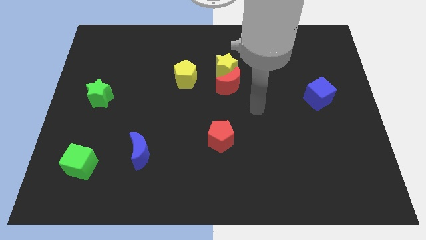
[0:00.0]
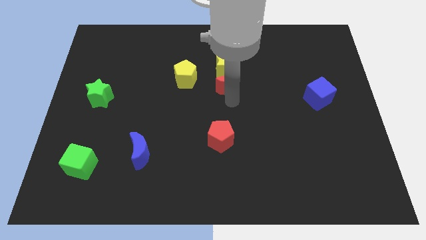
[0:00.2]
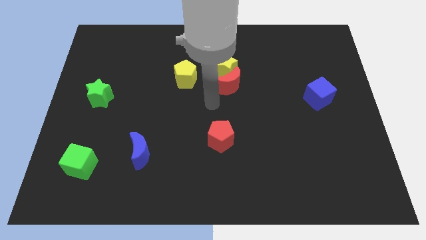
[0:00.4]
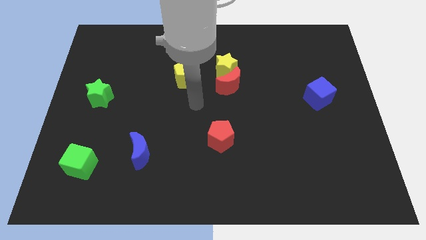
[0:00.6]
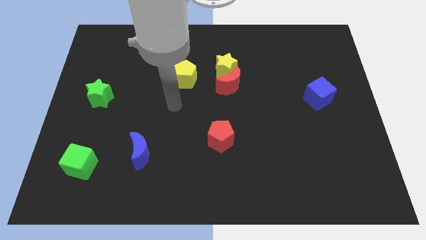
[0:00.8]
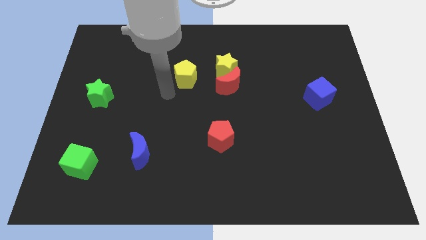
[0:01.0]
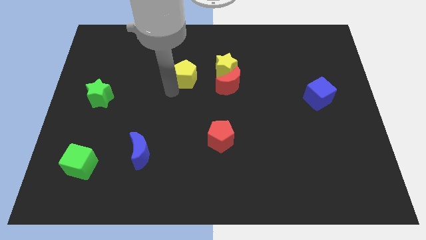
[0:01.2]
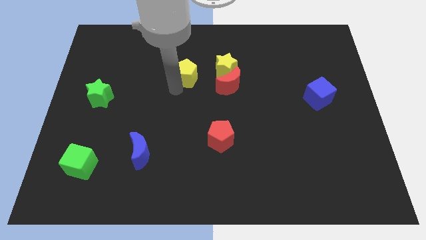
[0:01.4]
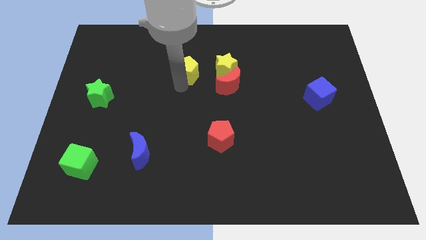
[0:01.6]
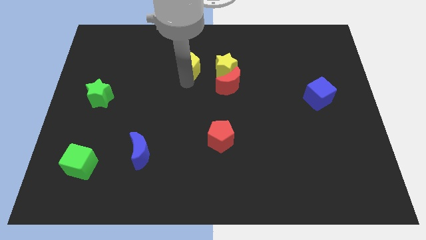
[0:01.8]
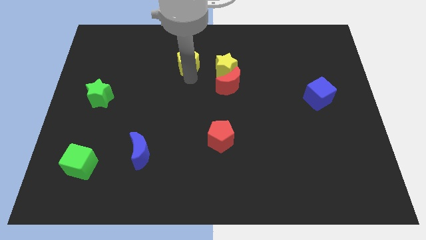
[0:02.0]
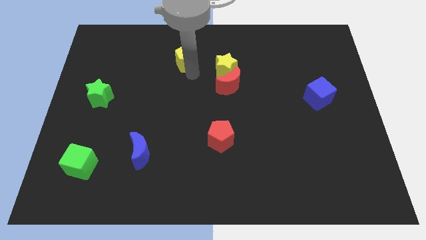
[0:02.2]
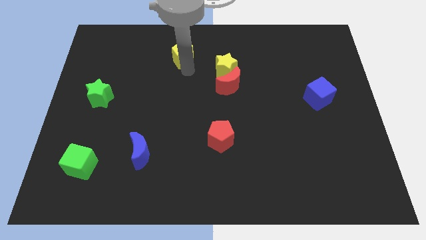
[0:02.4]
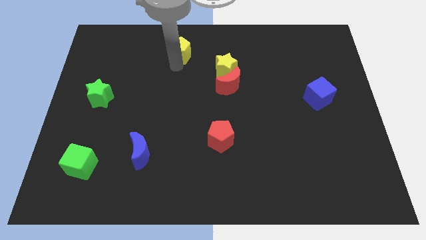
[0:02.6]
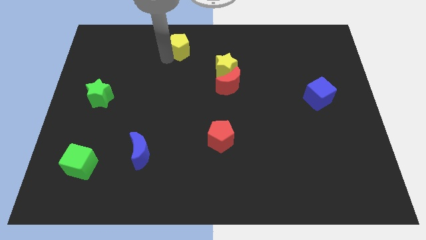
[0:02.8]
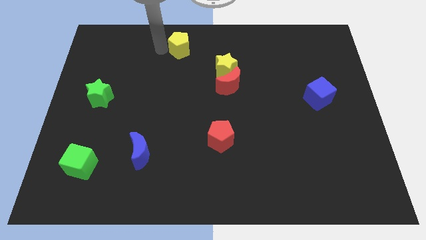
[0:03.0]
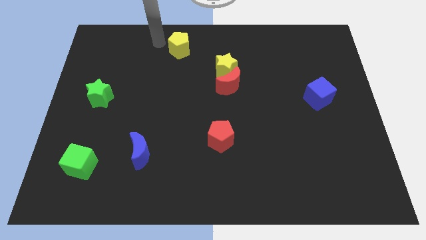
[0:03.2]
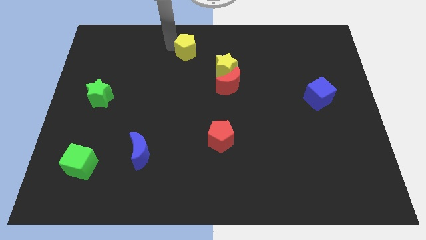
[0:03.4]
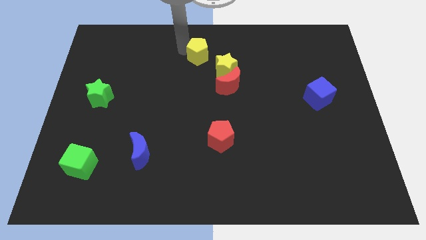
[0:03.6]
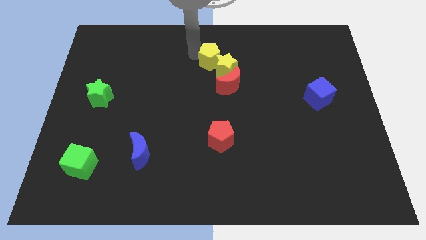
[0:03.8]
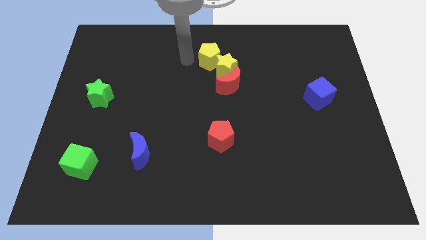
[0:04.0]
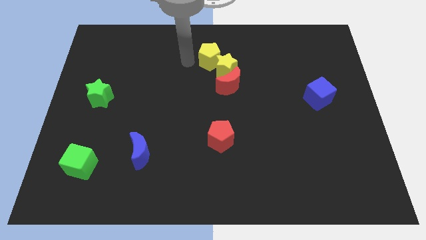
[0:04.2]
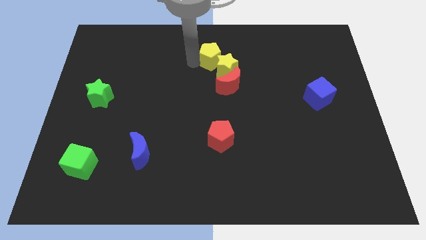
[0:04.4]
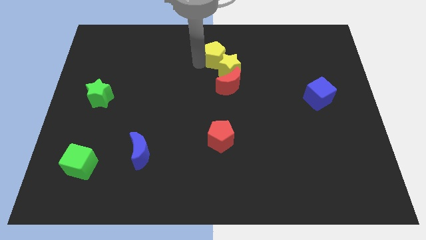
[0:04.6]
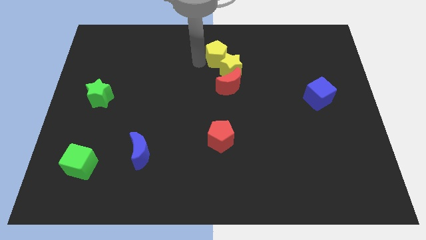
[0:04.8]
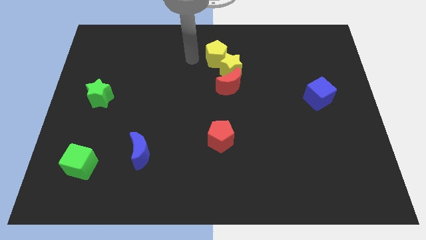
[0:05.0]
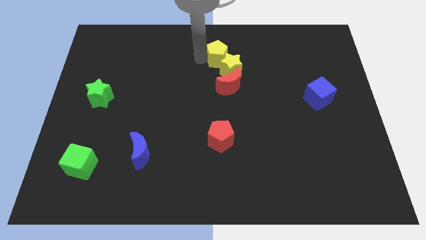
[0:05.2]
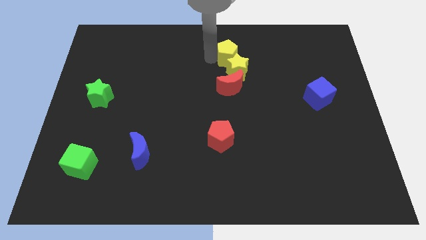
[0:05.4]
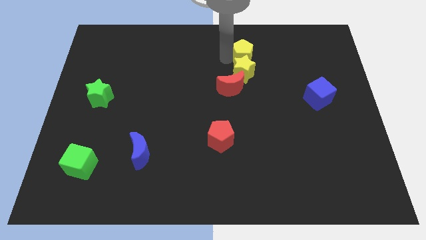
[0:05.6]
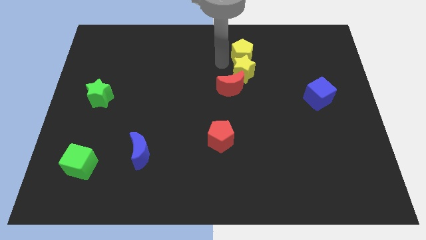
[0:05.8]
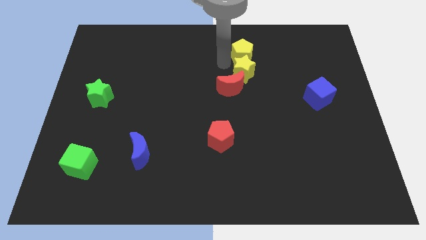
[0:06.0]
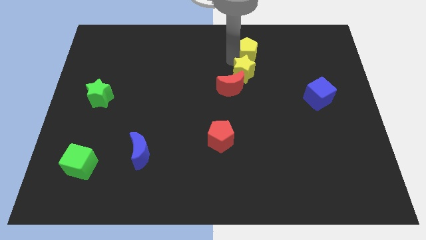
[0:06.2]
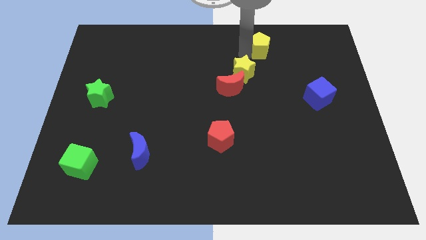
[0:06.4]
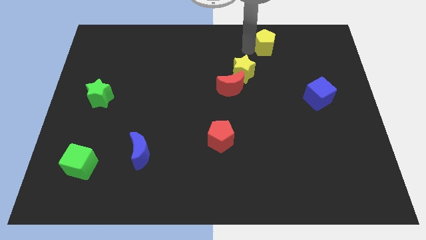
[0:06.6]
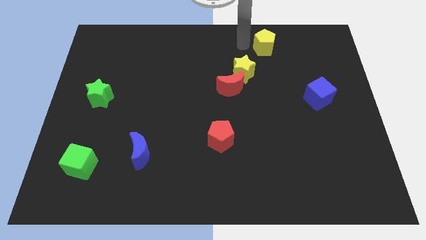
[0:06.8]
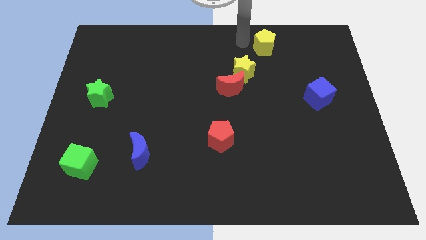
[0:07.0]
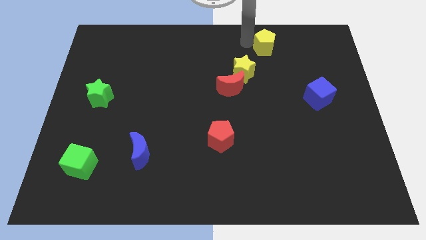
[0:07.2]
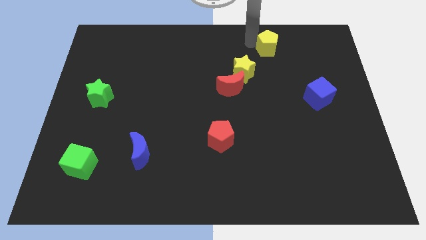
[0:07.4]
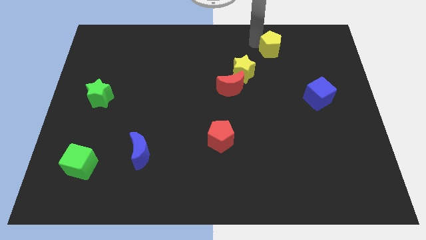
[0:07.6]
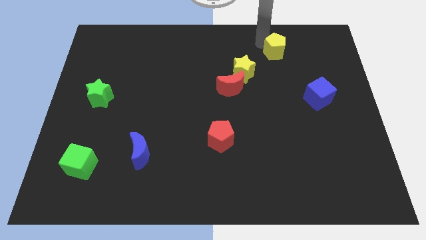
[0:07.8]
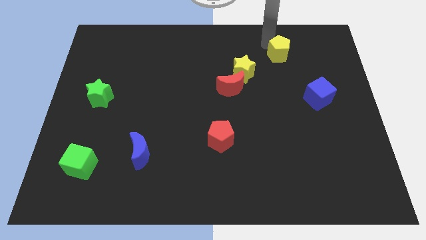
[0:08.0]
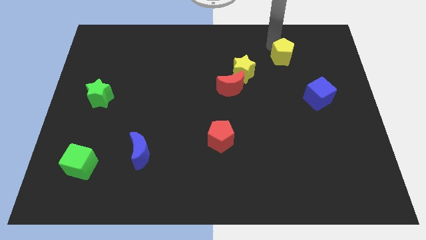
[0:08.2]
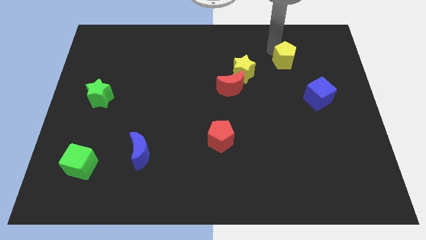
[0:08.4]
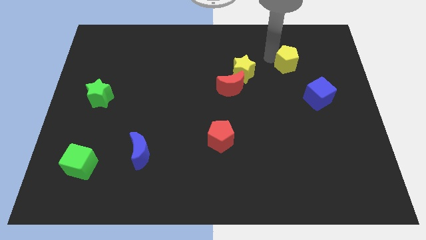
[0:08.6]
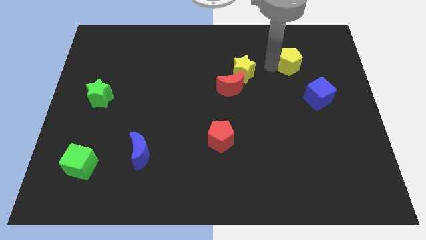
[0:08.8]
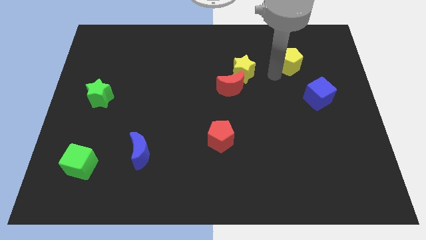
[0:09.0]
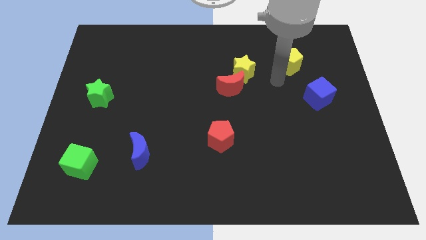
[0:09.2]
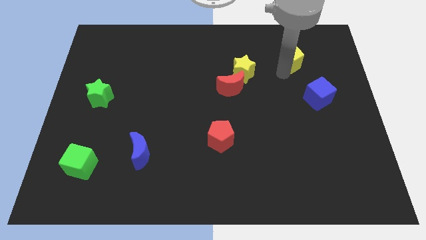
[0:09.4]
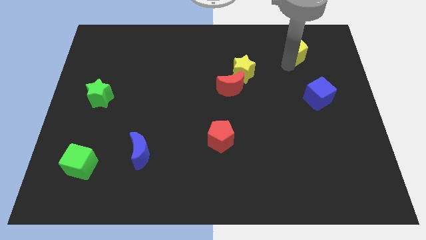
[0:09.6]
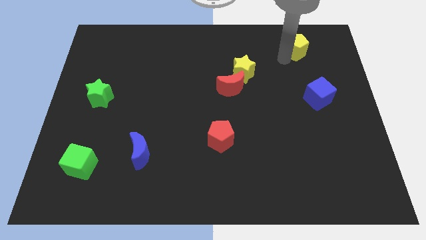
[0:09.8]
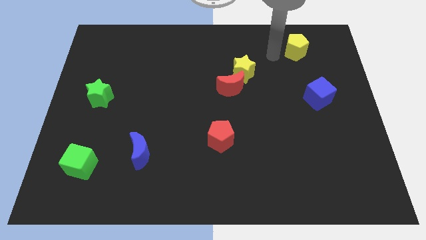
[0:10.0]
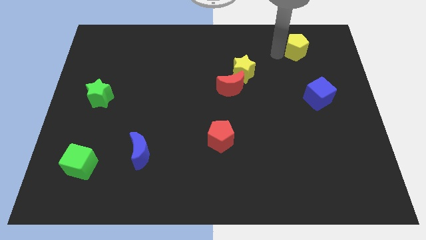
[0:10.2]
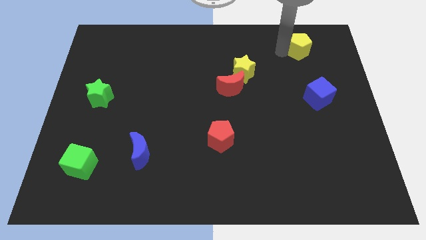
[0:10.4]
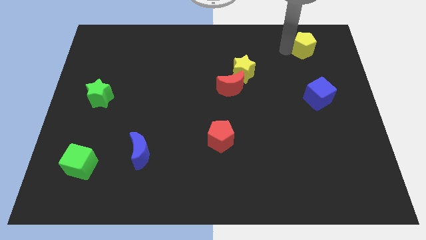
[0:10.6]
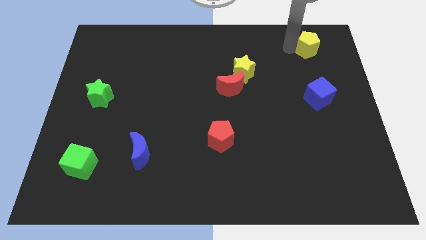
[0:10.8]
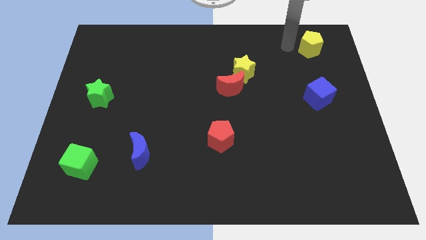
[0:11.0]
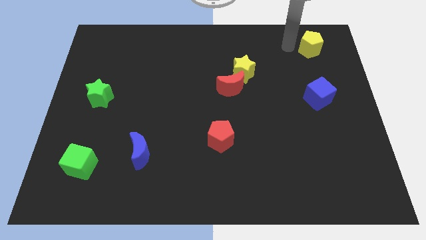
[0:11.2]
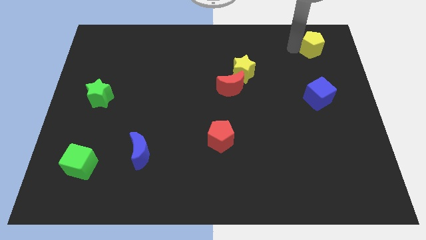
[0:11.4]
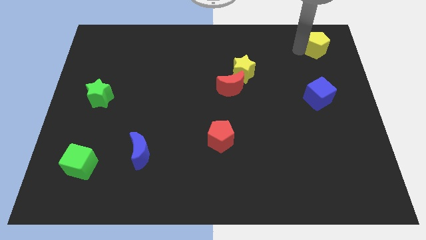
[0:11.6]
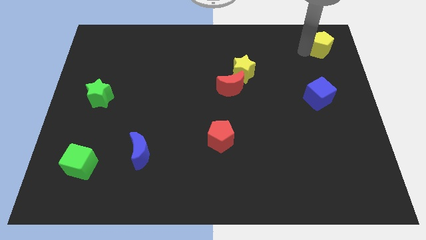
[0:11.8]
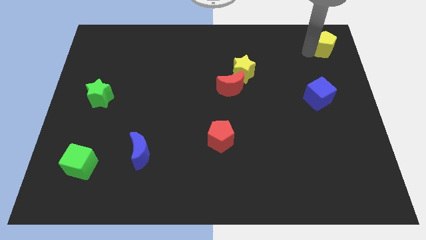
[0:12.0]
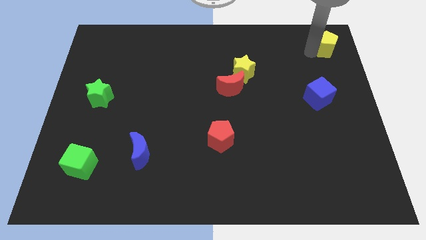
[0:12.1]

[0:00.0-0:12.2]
push the yellow pentagon to the top right of the board
